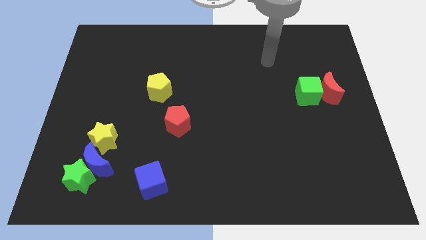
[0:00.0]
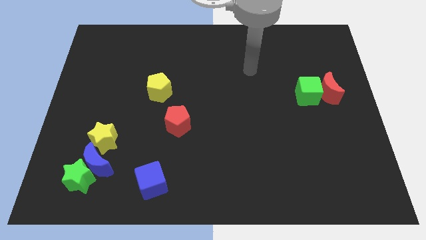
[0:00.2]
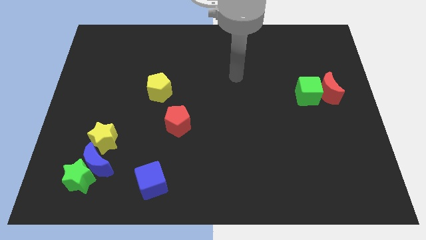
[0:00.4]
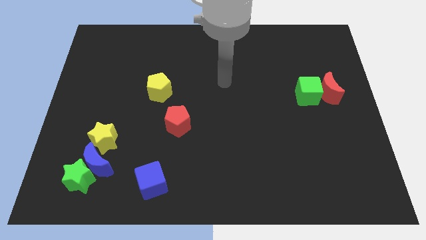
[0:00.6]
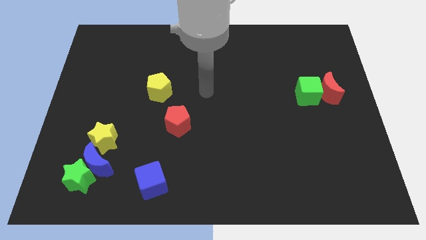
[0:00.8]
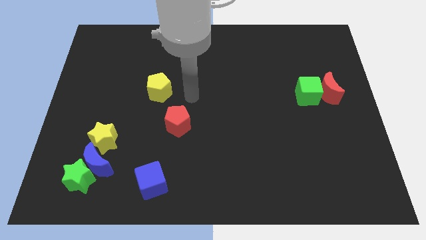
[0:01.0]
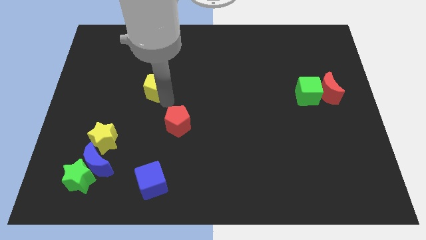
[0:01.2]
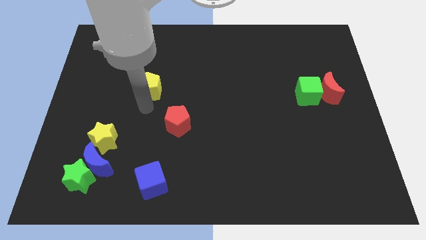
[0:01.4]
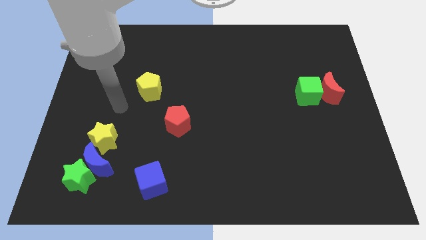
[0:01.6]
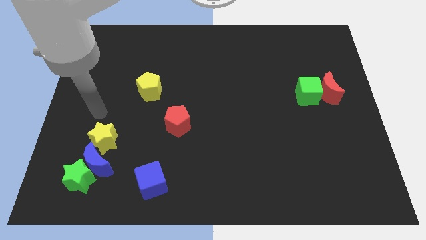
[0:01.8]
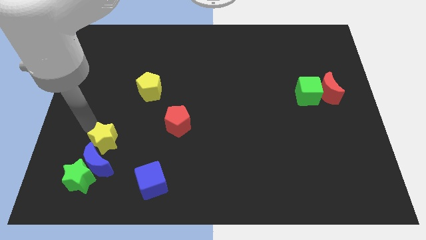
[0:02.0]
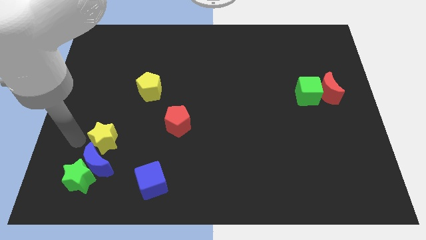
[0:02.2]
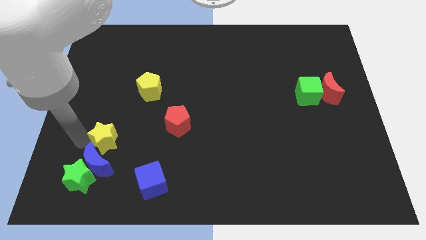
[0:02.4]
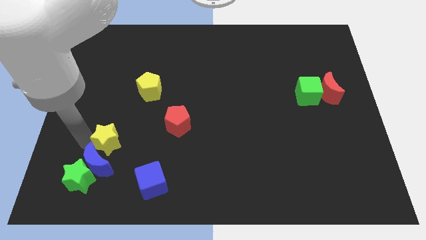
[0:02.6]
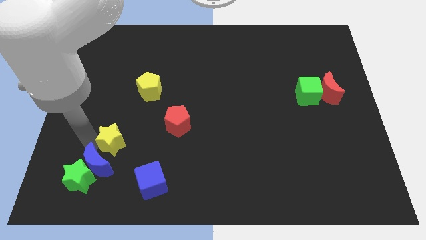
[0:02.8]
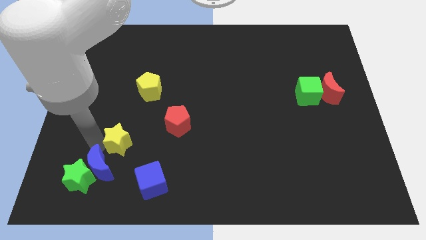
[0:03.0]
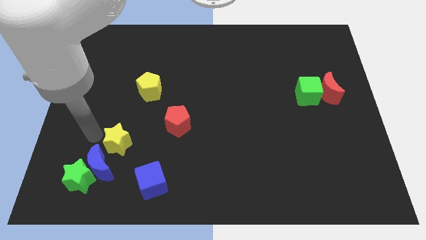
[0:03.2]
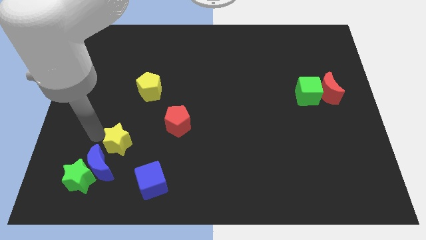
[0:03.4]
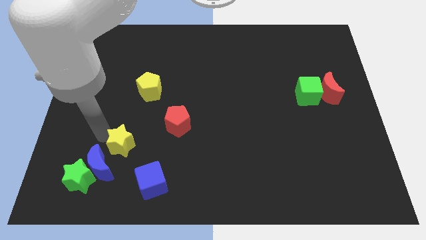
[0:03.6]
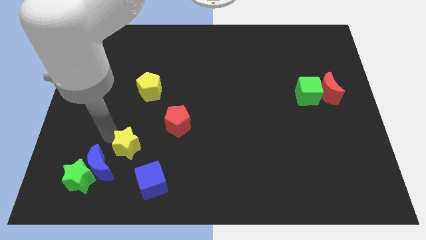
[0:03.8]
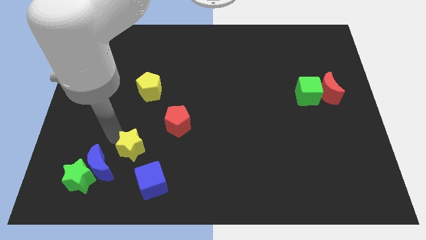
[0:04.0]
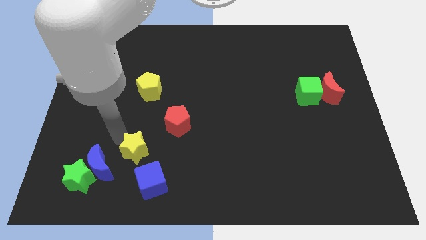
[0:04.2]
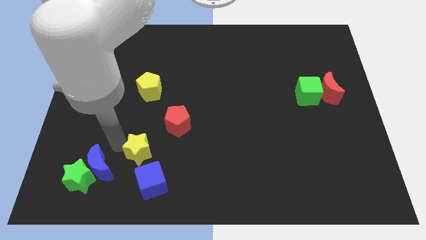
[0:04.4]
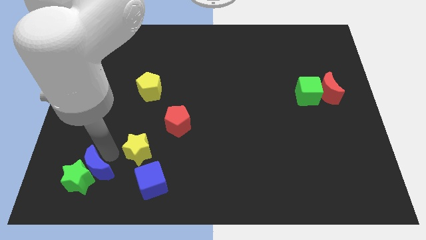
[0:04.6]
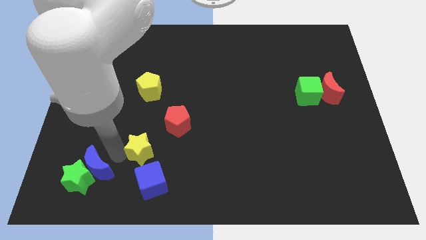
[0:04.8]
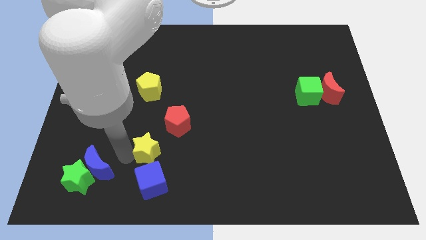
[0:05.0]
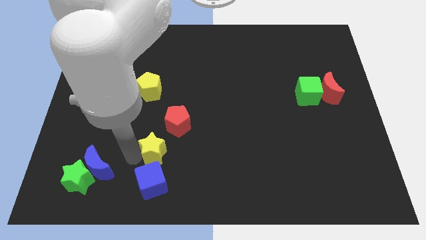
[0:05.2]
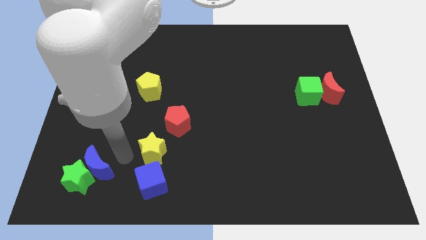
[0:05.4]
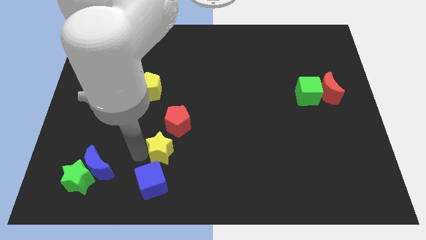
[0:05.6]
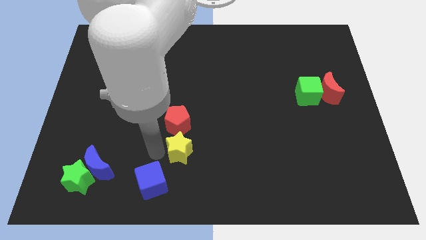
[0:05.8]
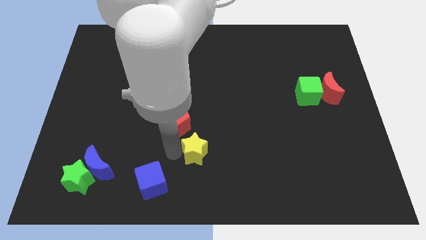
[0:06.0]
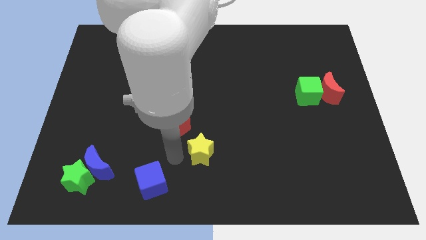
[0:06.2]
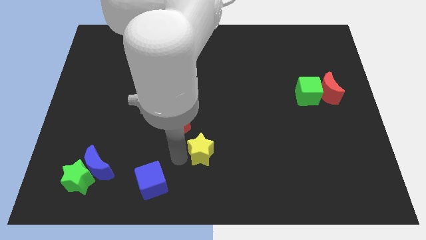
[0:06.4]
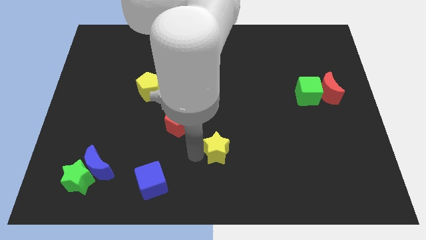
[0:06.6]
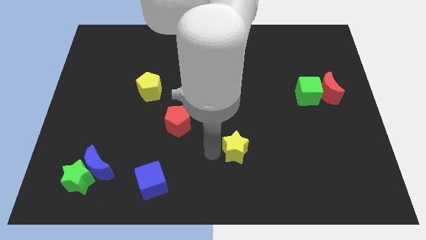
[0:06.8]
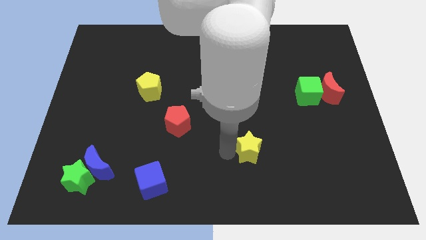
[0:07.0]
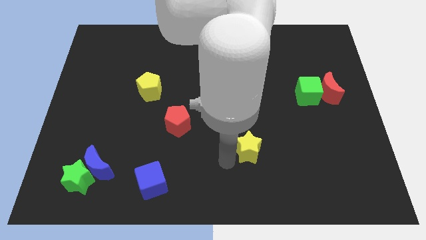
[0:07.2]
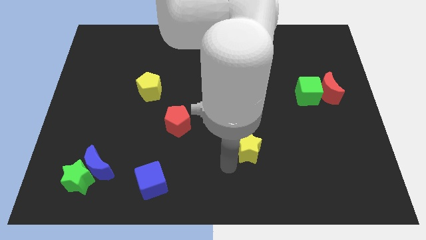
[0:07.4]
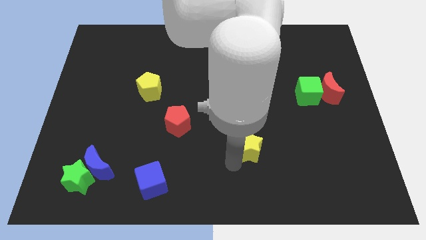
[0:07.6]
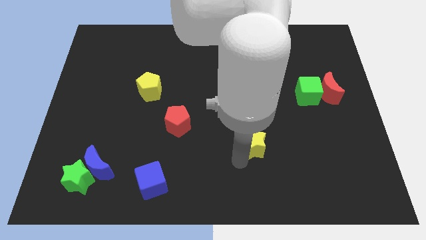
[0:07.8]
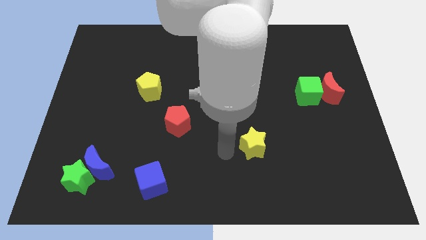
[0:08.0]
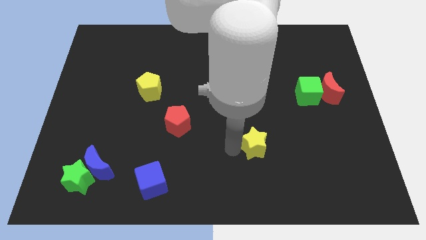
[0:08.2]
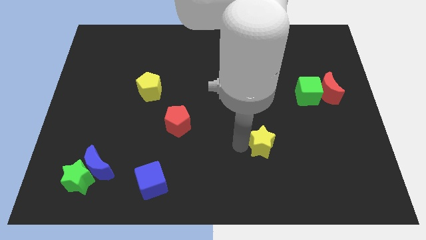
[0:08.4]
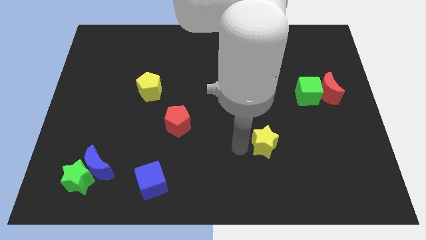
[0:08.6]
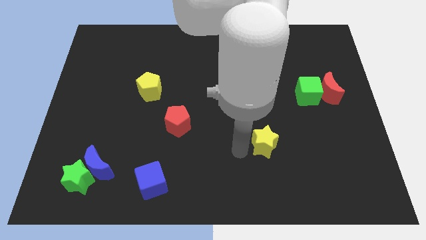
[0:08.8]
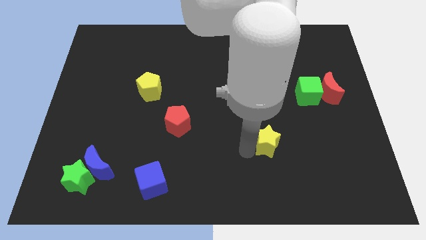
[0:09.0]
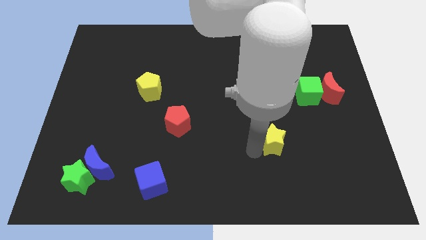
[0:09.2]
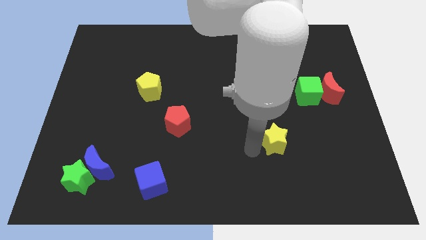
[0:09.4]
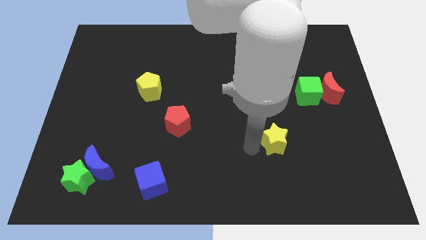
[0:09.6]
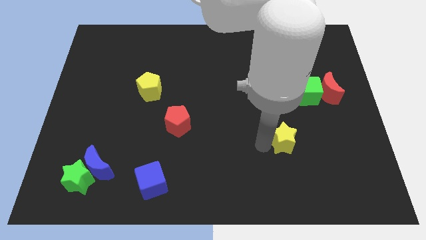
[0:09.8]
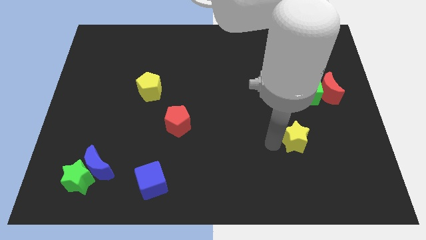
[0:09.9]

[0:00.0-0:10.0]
move the yellow star to the bottom of the green cube

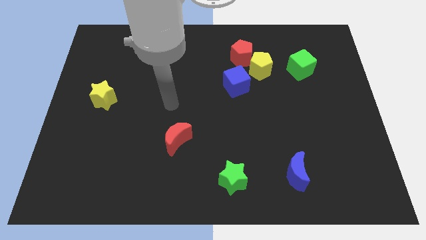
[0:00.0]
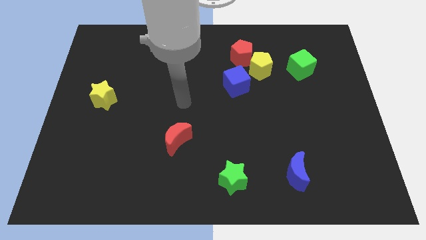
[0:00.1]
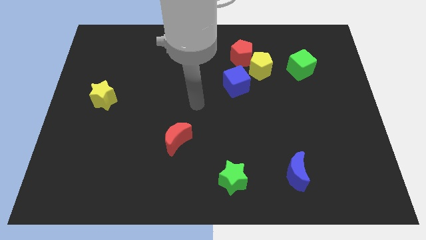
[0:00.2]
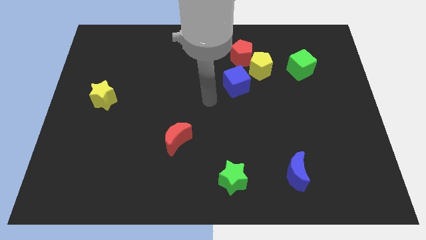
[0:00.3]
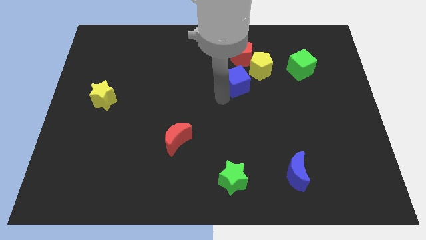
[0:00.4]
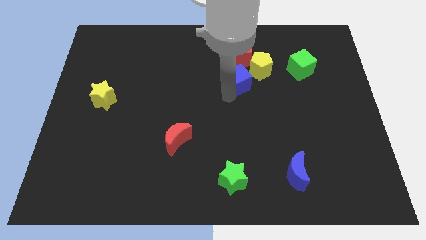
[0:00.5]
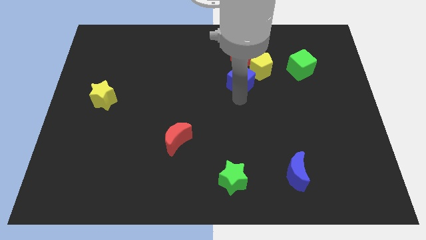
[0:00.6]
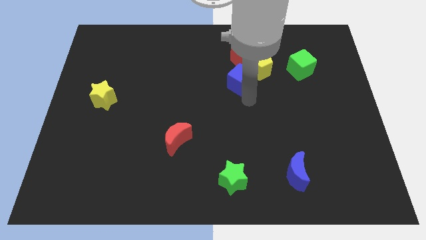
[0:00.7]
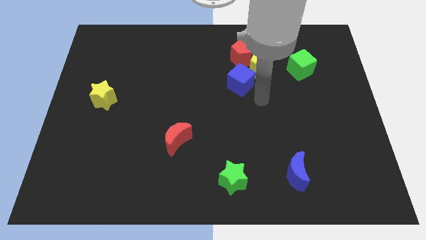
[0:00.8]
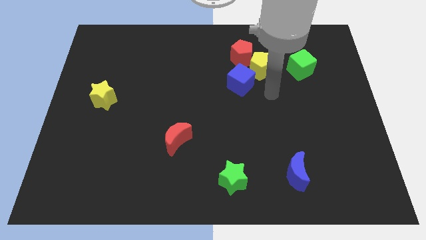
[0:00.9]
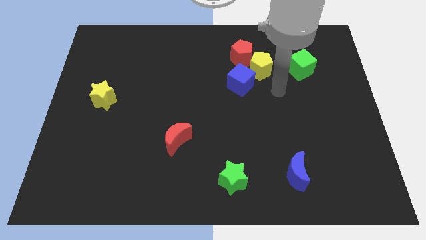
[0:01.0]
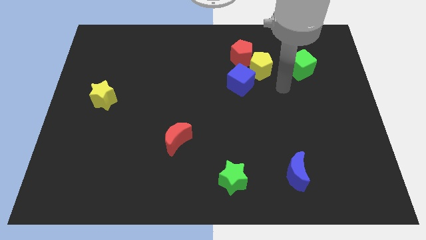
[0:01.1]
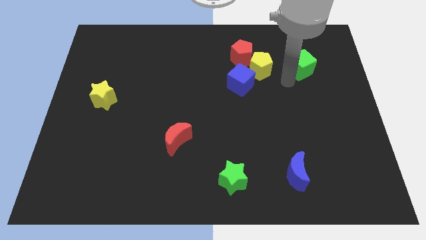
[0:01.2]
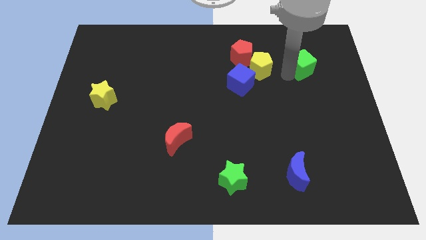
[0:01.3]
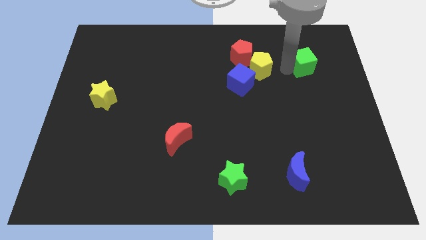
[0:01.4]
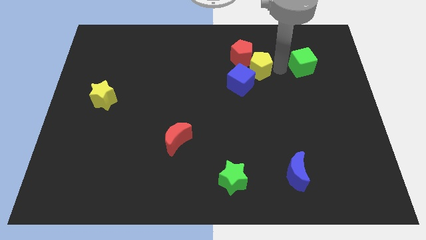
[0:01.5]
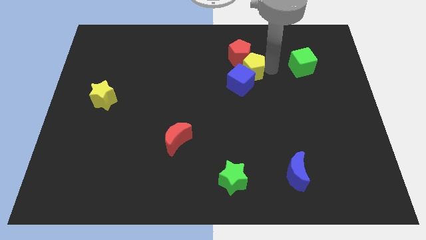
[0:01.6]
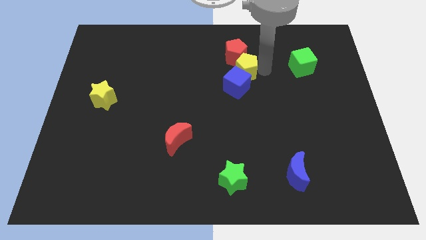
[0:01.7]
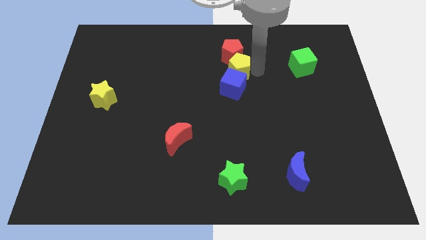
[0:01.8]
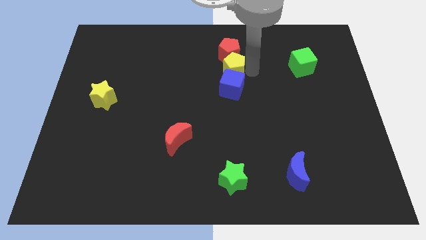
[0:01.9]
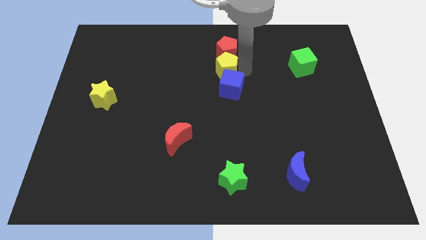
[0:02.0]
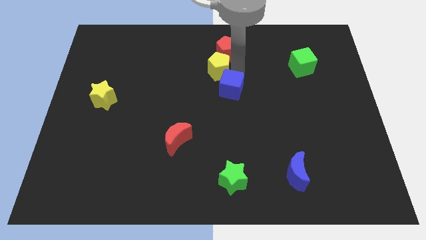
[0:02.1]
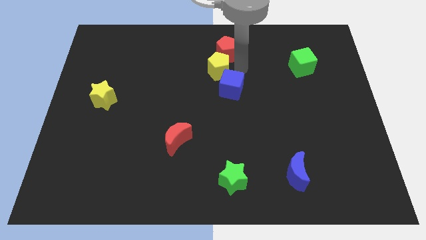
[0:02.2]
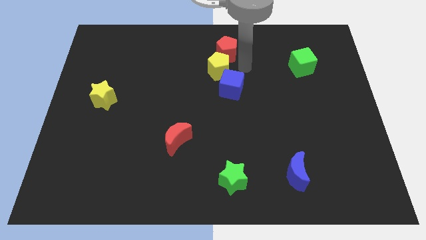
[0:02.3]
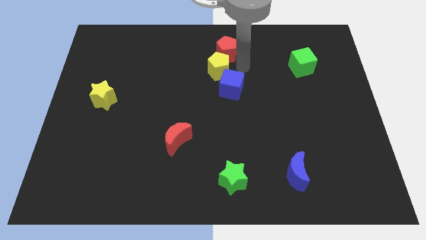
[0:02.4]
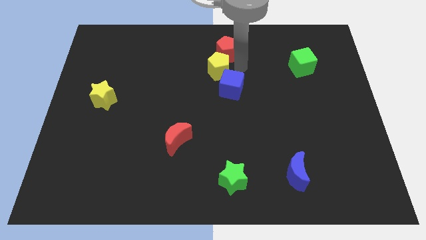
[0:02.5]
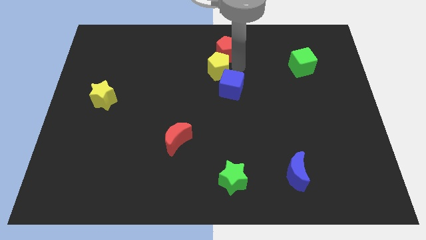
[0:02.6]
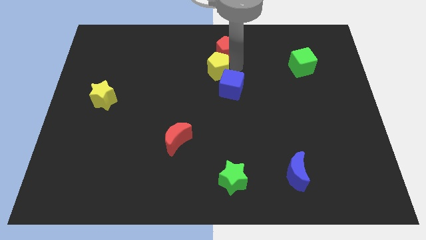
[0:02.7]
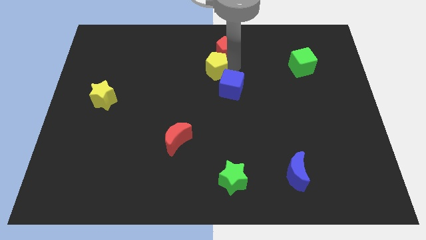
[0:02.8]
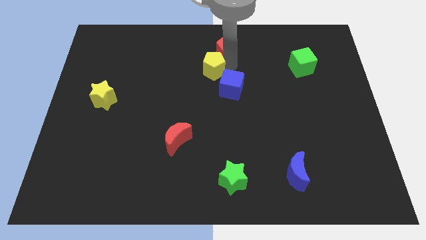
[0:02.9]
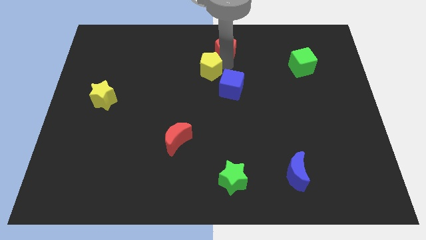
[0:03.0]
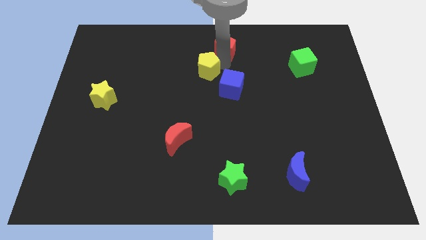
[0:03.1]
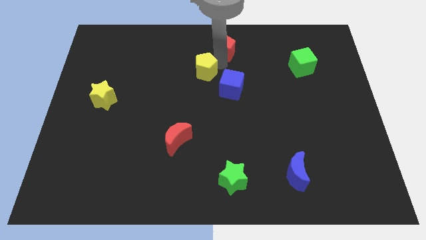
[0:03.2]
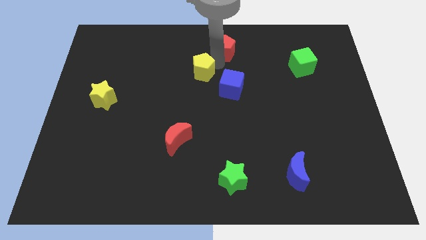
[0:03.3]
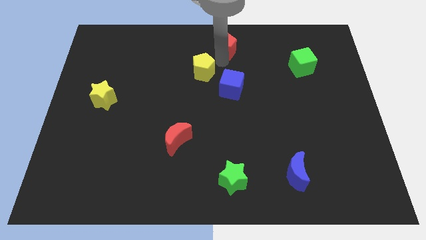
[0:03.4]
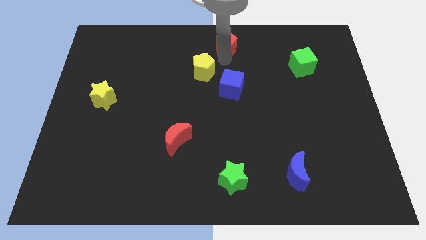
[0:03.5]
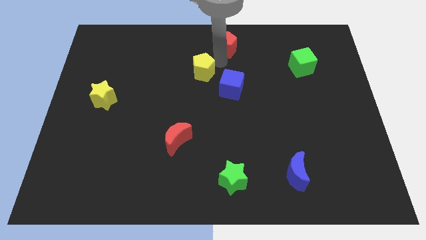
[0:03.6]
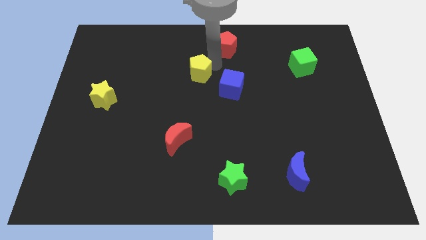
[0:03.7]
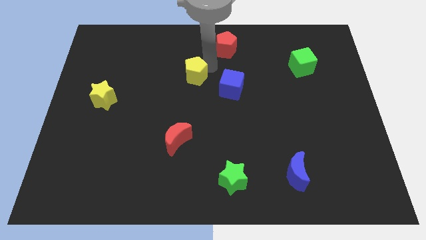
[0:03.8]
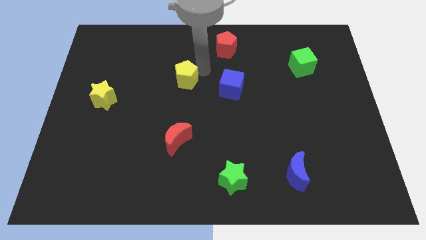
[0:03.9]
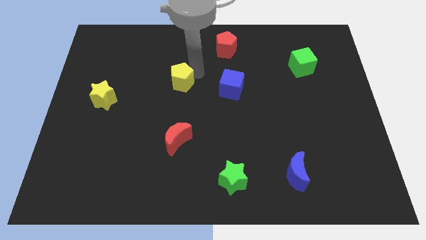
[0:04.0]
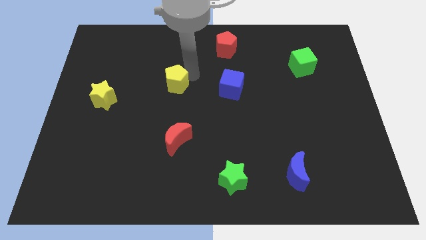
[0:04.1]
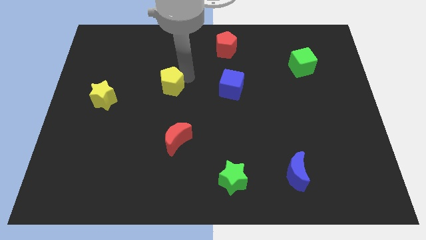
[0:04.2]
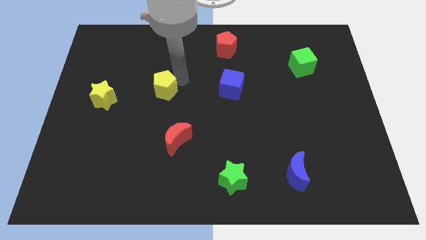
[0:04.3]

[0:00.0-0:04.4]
move the yellow pentagon to the right of the yellow star
